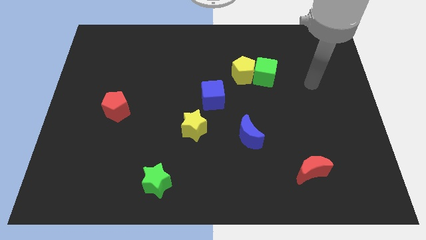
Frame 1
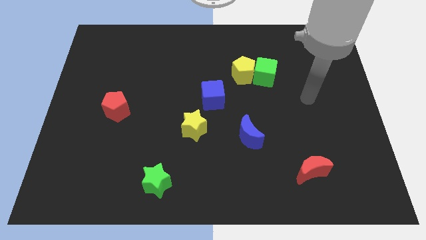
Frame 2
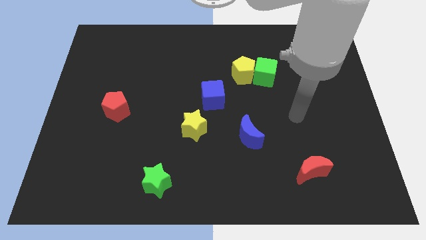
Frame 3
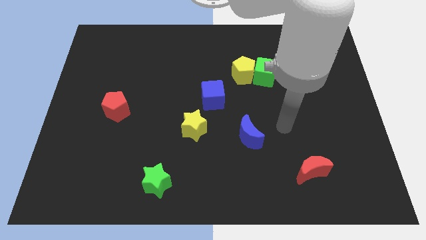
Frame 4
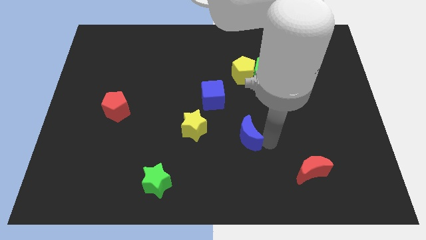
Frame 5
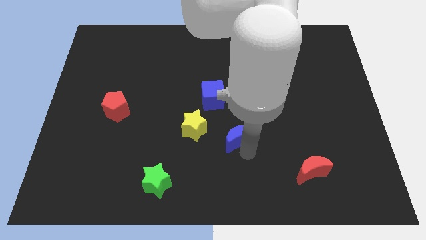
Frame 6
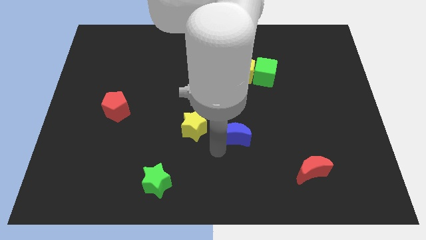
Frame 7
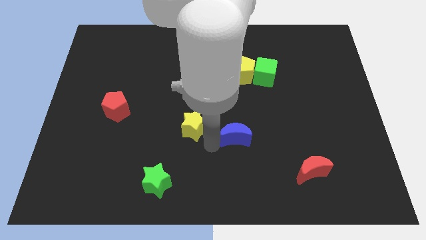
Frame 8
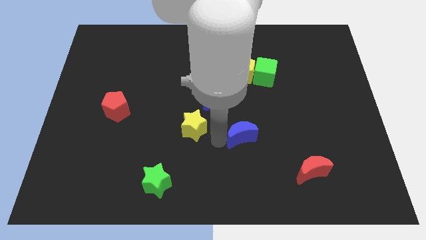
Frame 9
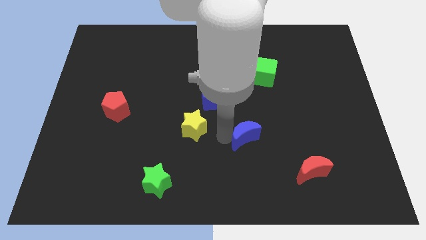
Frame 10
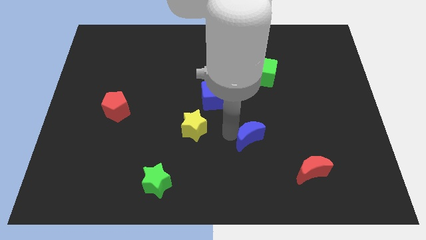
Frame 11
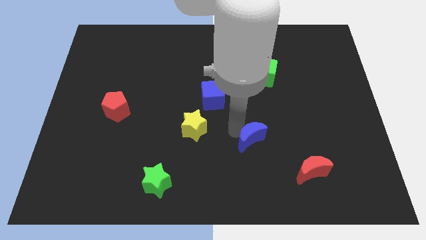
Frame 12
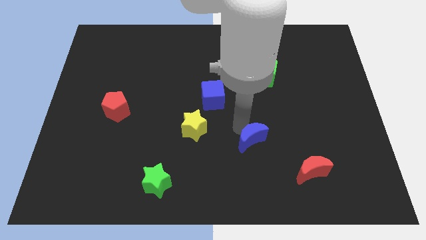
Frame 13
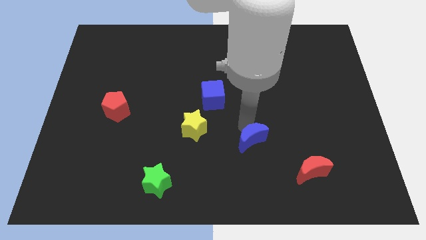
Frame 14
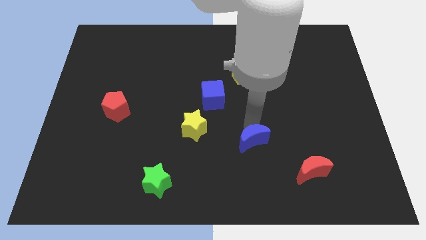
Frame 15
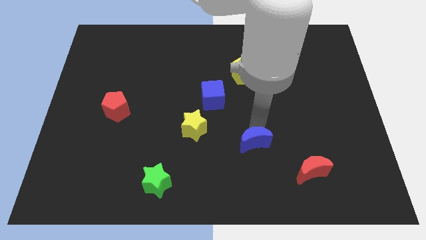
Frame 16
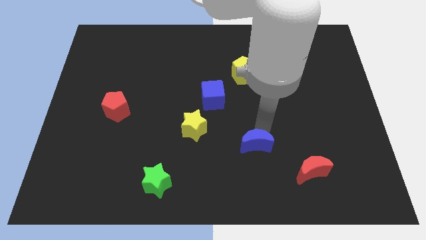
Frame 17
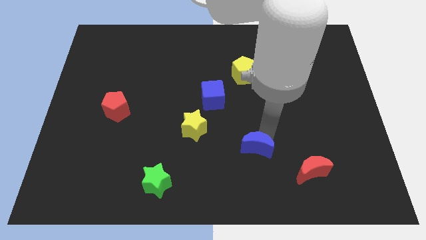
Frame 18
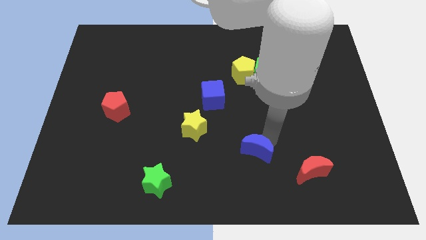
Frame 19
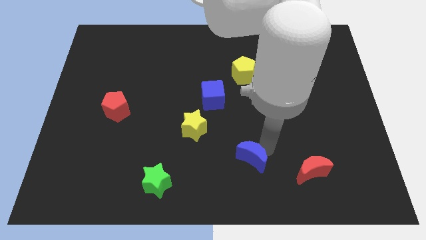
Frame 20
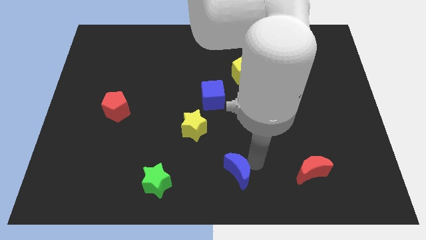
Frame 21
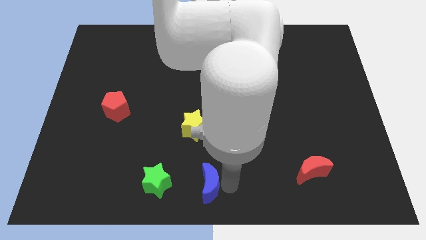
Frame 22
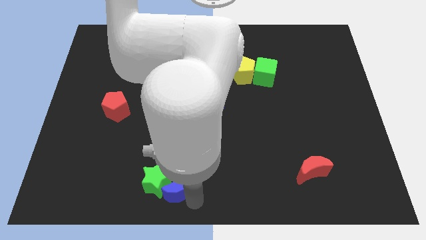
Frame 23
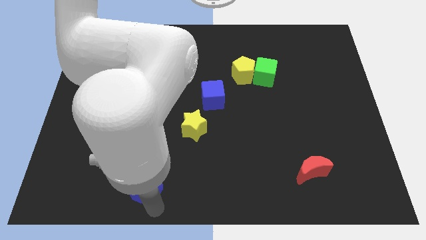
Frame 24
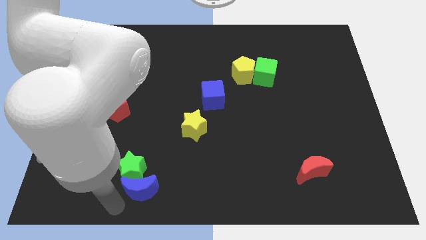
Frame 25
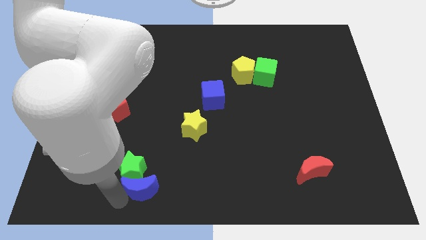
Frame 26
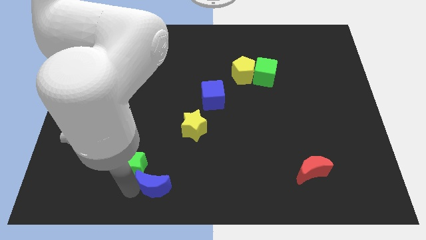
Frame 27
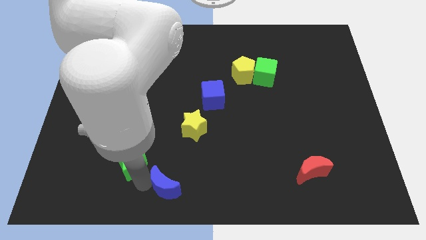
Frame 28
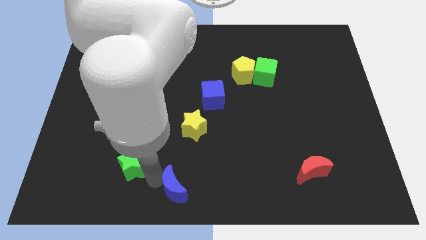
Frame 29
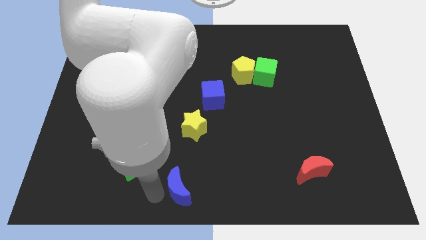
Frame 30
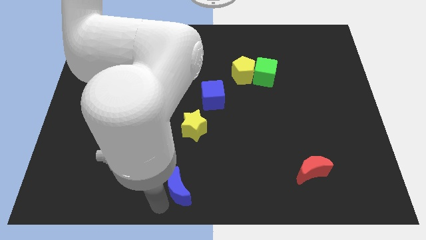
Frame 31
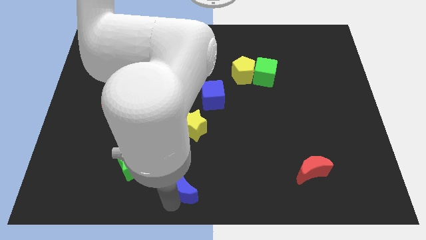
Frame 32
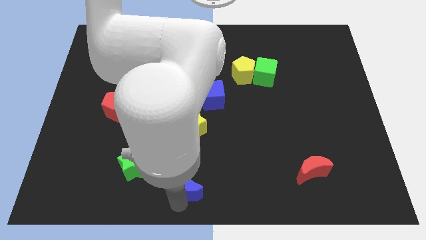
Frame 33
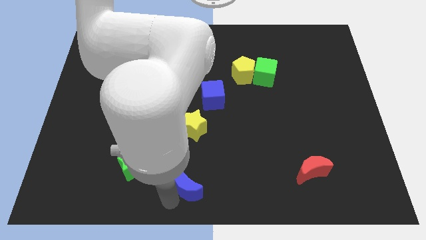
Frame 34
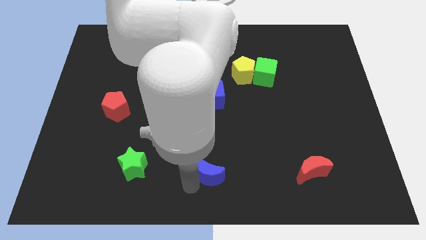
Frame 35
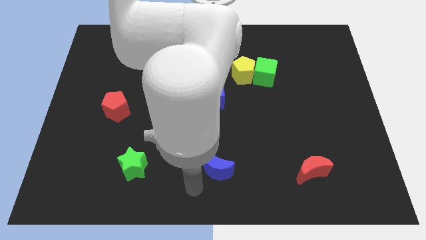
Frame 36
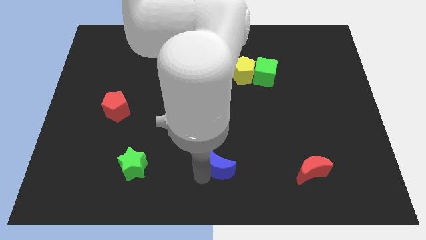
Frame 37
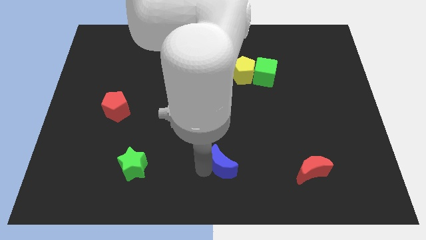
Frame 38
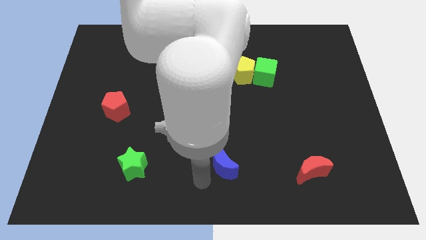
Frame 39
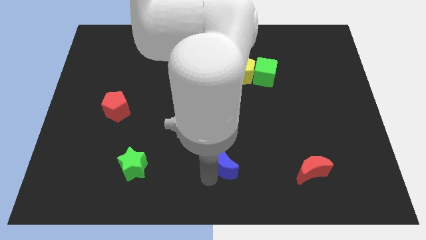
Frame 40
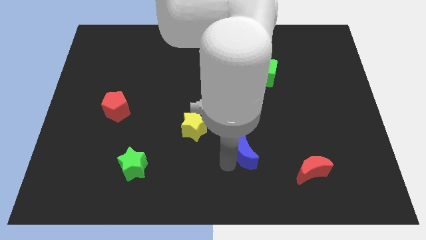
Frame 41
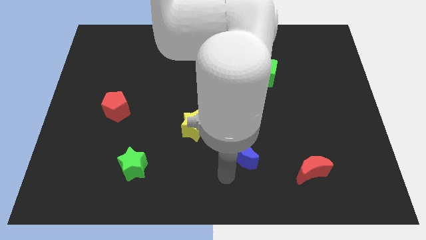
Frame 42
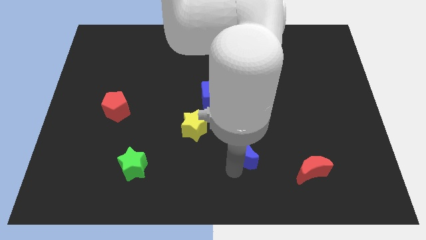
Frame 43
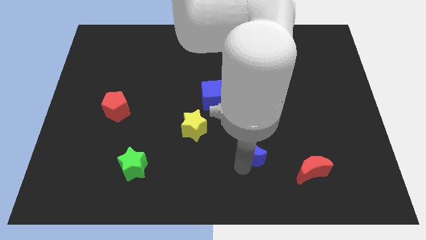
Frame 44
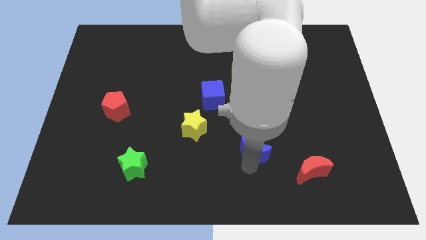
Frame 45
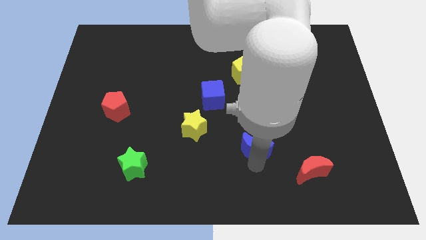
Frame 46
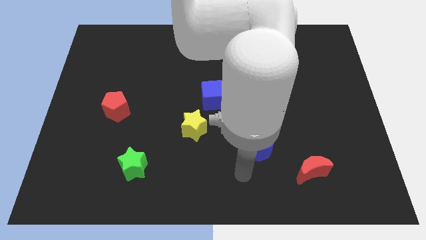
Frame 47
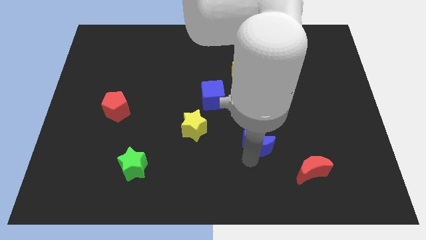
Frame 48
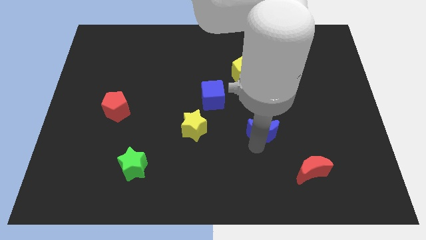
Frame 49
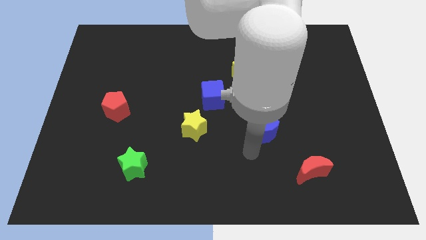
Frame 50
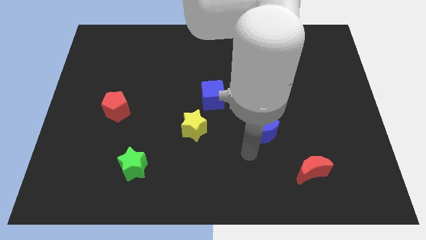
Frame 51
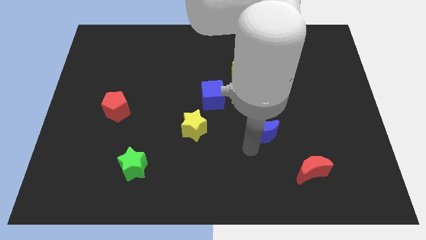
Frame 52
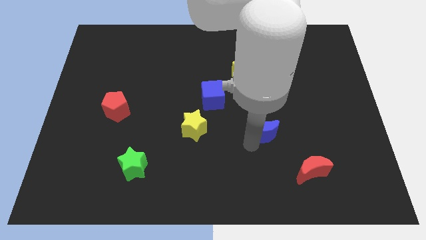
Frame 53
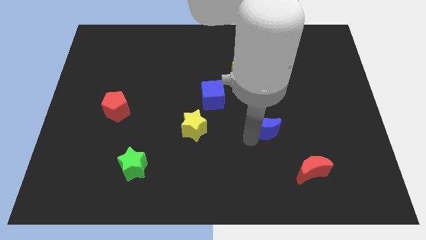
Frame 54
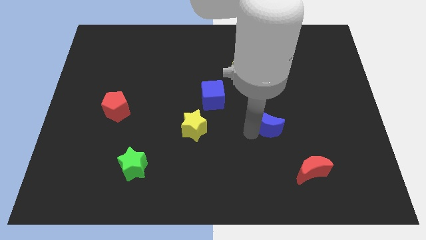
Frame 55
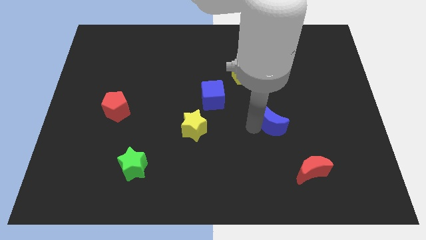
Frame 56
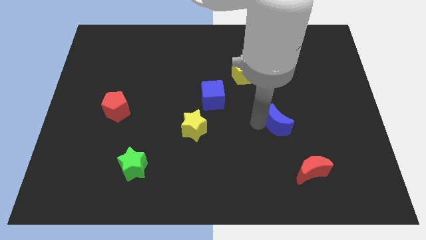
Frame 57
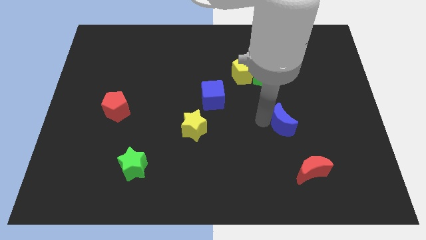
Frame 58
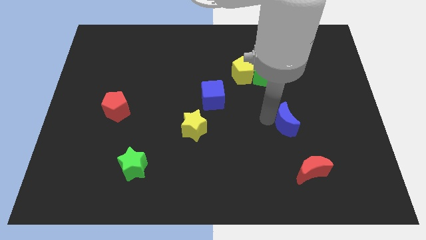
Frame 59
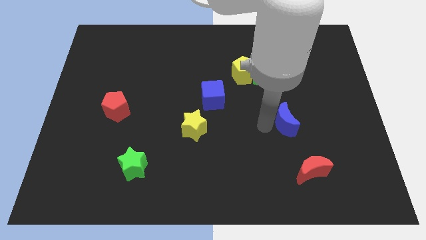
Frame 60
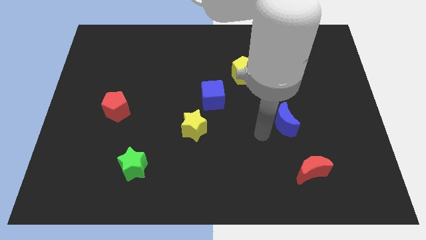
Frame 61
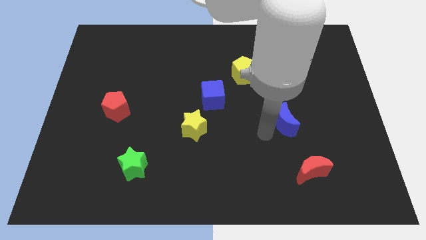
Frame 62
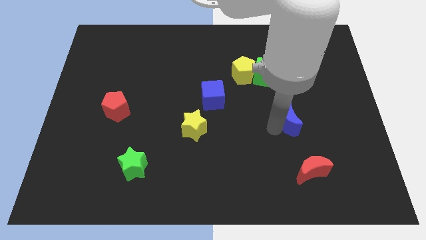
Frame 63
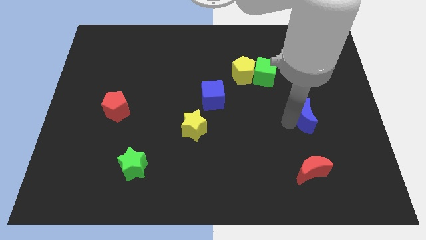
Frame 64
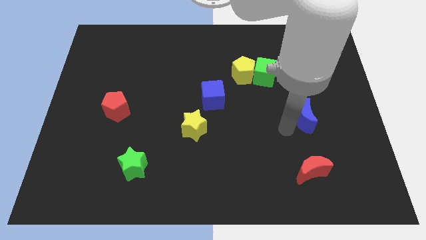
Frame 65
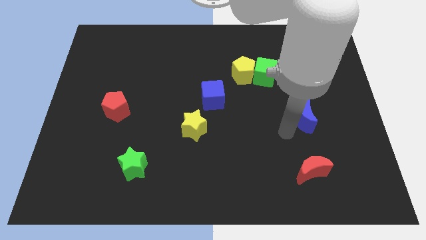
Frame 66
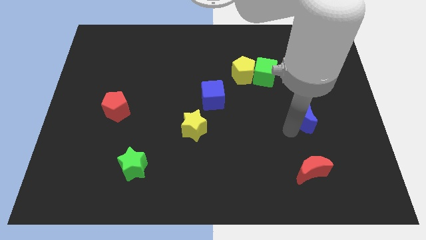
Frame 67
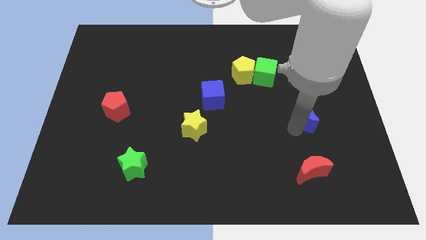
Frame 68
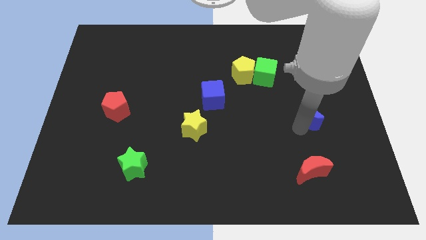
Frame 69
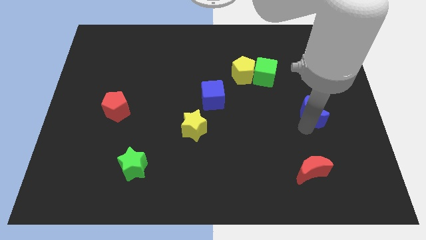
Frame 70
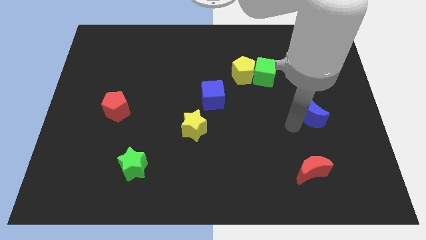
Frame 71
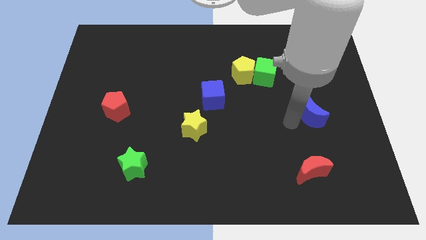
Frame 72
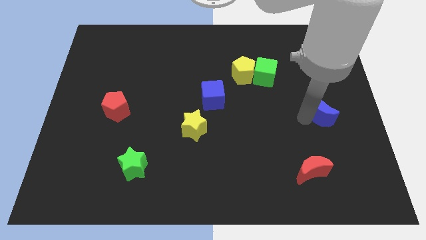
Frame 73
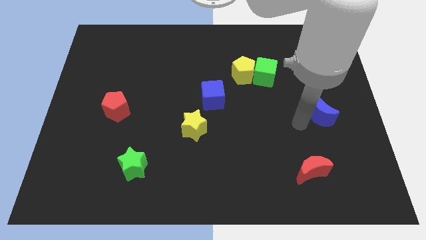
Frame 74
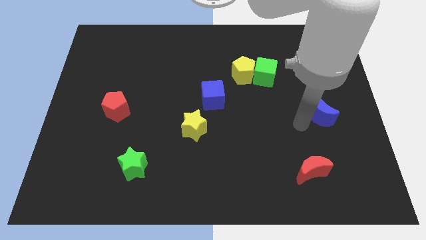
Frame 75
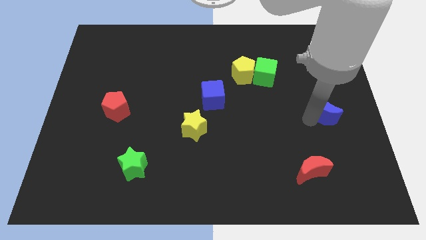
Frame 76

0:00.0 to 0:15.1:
move the blue moon to the right side

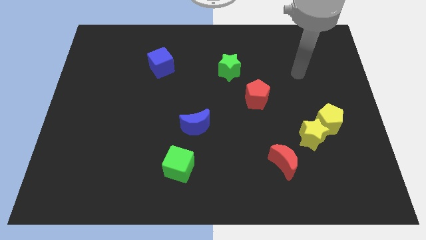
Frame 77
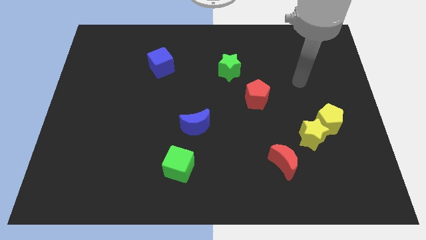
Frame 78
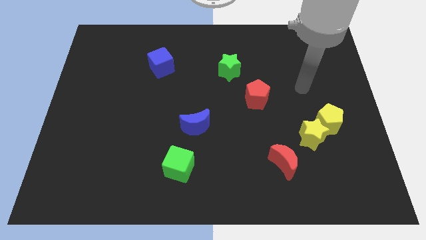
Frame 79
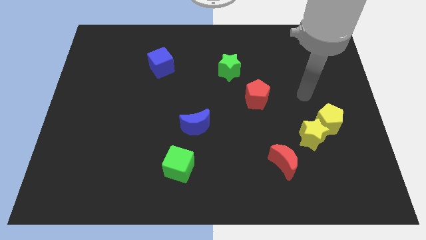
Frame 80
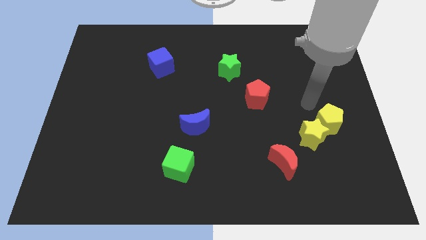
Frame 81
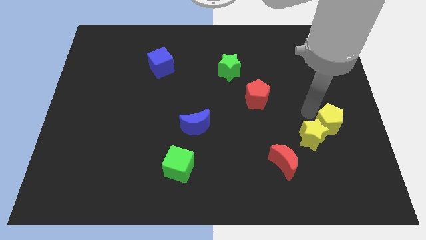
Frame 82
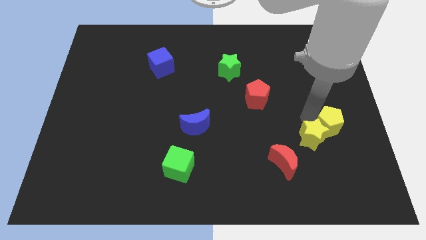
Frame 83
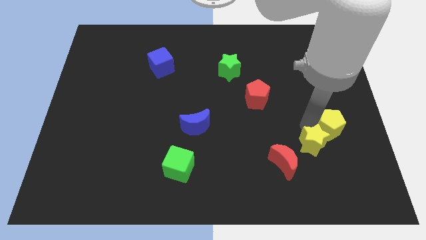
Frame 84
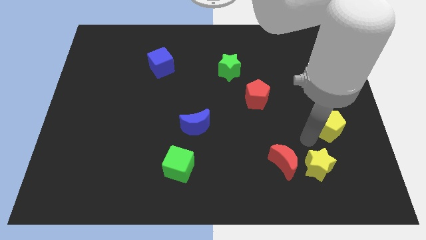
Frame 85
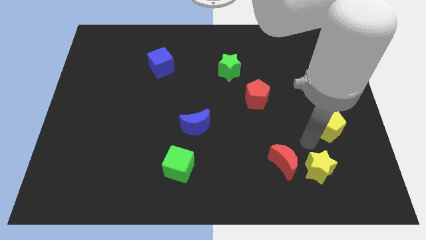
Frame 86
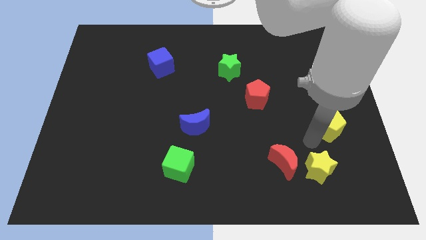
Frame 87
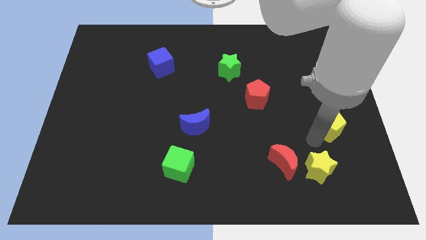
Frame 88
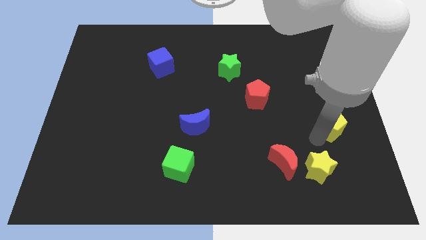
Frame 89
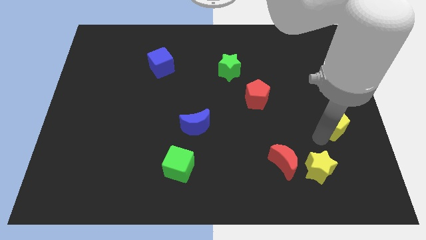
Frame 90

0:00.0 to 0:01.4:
slide the yellow pentagon to the right side of the board
